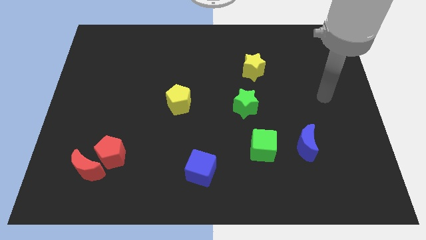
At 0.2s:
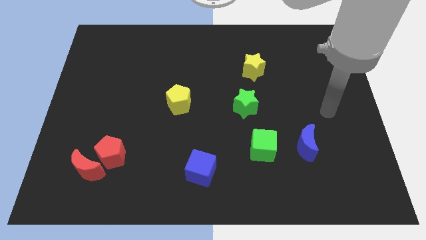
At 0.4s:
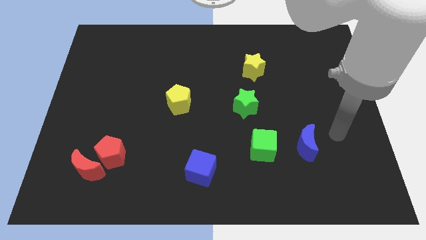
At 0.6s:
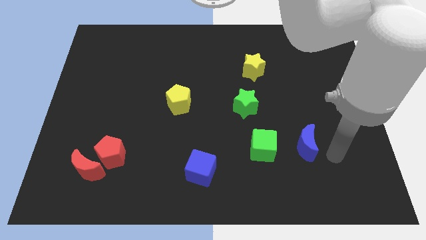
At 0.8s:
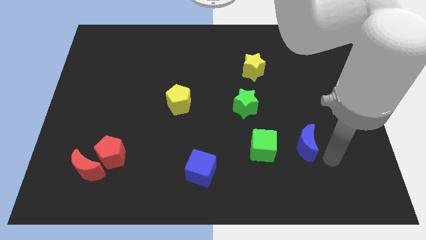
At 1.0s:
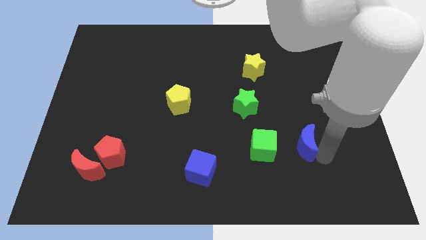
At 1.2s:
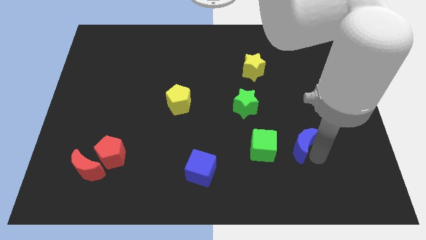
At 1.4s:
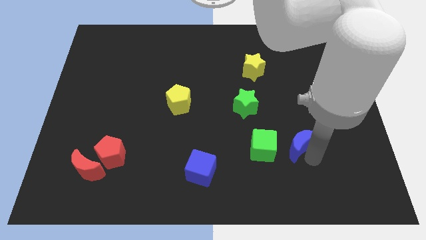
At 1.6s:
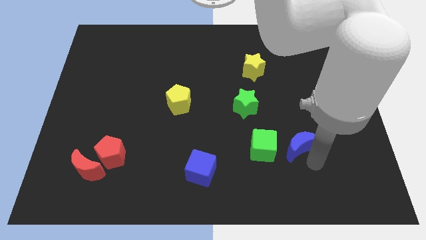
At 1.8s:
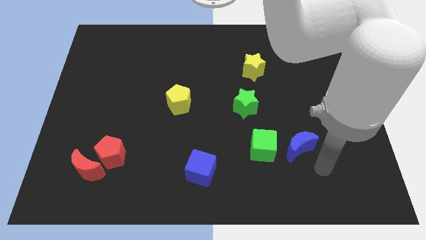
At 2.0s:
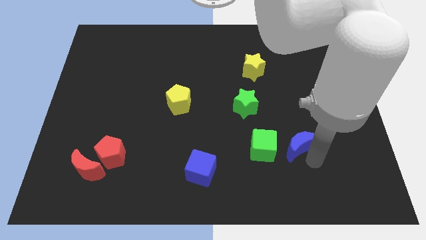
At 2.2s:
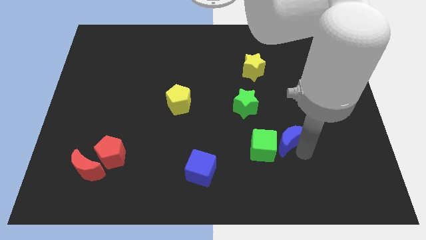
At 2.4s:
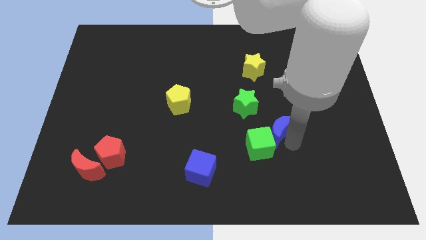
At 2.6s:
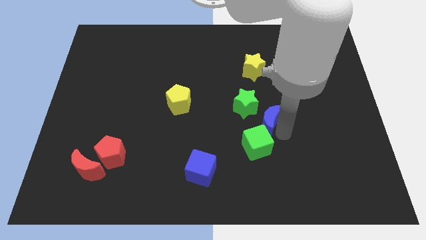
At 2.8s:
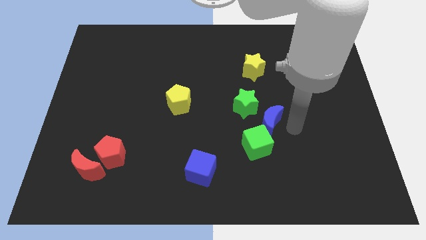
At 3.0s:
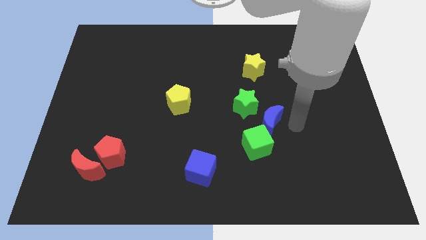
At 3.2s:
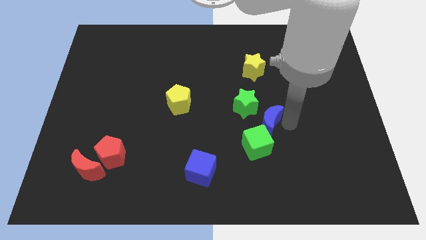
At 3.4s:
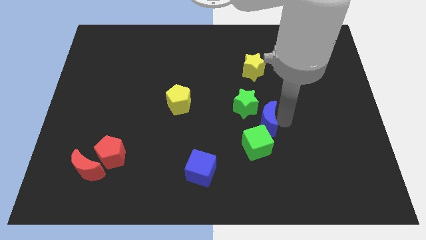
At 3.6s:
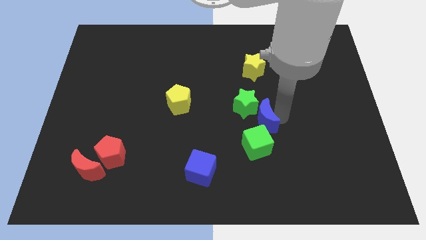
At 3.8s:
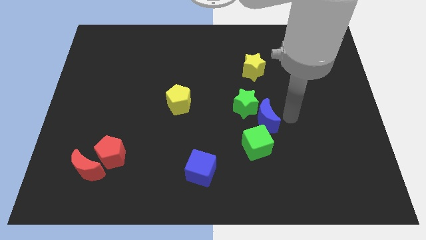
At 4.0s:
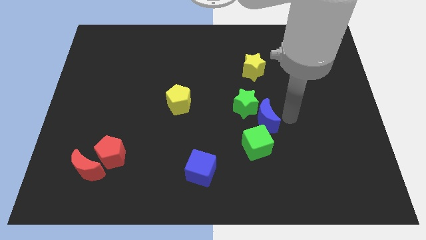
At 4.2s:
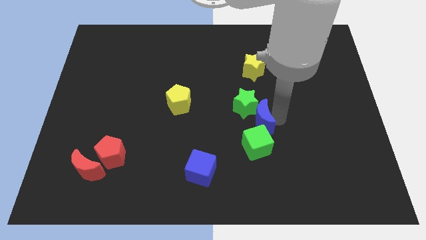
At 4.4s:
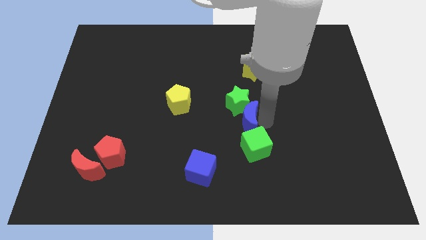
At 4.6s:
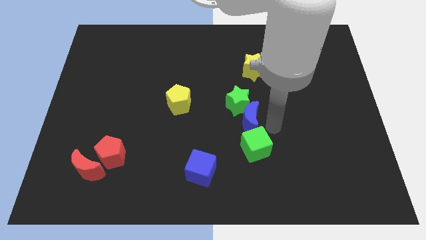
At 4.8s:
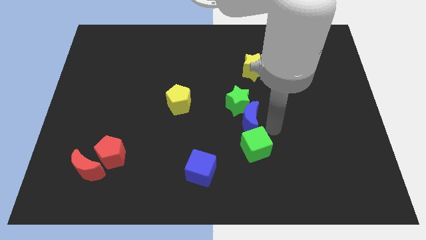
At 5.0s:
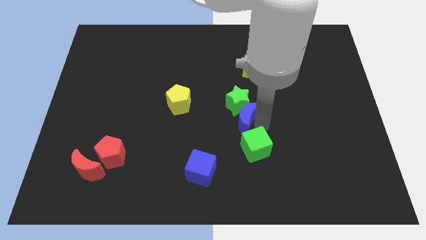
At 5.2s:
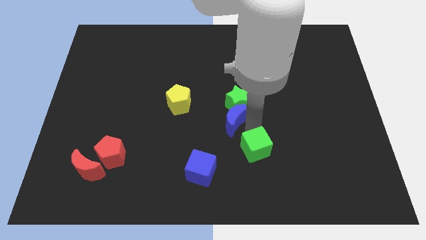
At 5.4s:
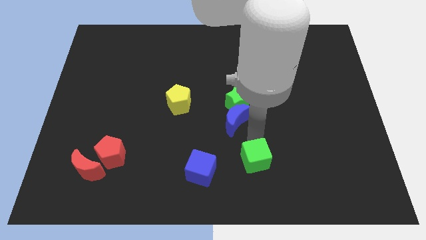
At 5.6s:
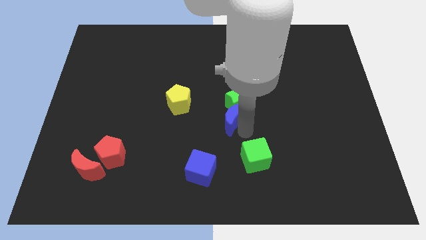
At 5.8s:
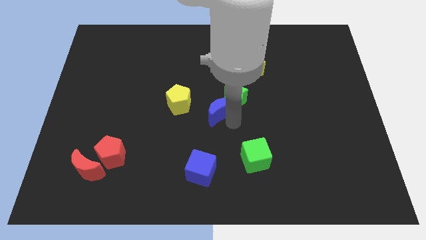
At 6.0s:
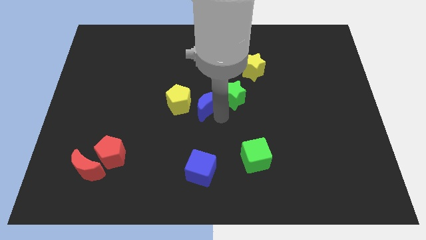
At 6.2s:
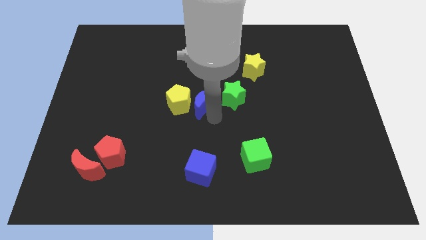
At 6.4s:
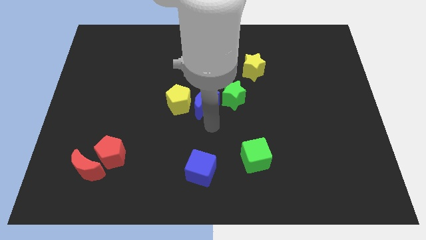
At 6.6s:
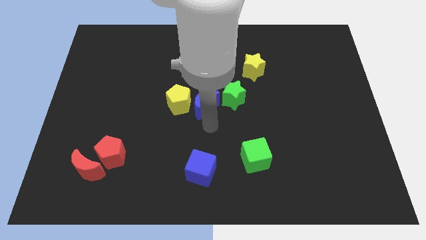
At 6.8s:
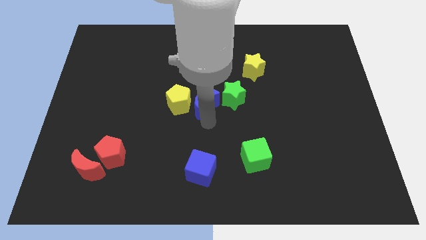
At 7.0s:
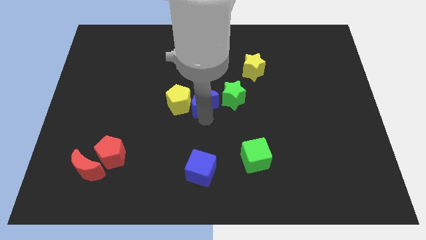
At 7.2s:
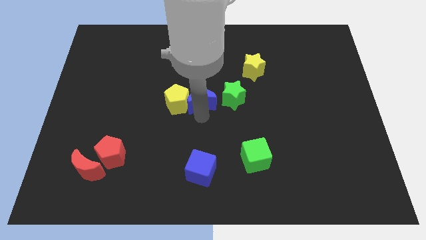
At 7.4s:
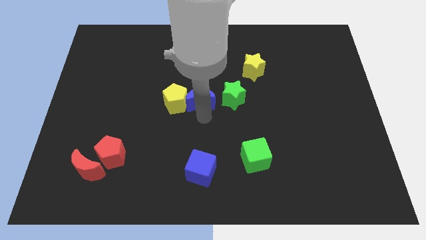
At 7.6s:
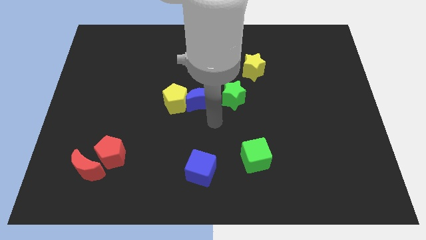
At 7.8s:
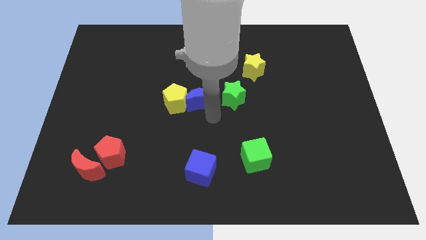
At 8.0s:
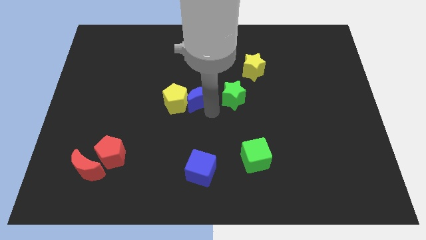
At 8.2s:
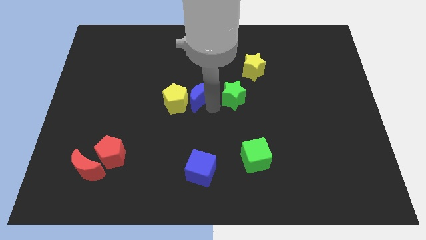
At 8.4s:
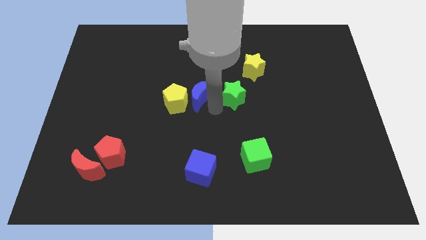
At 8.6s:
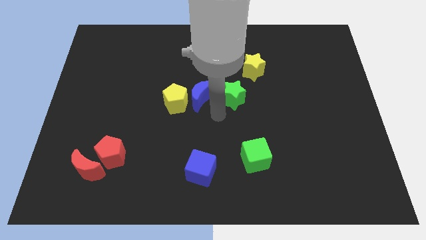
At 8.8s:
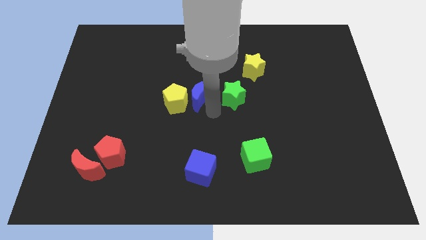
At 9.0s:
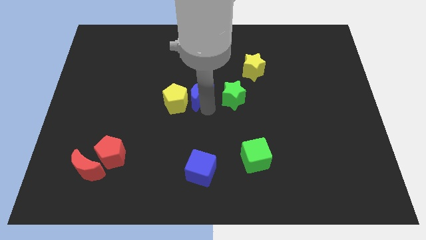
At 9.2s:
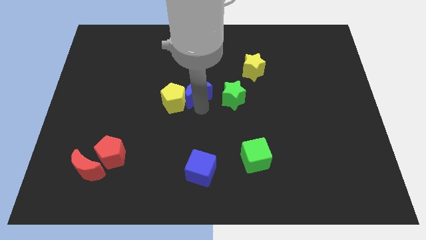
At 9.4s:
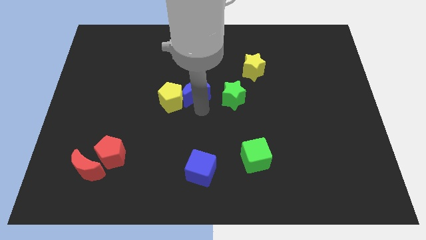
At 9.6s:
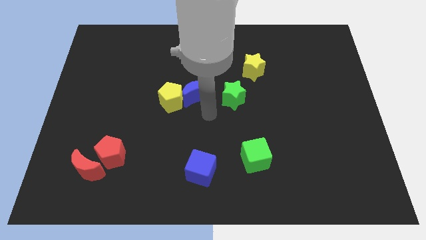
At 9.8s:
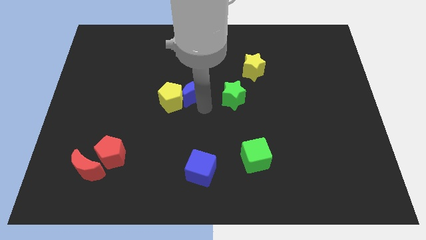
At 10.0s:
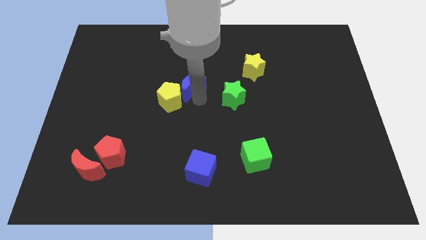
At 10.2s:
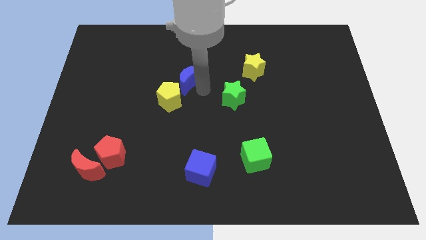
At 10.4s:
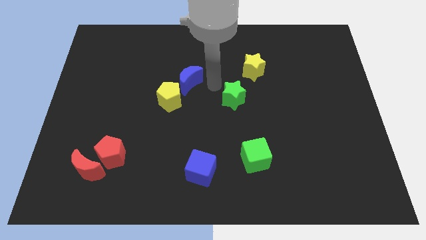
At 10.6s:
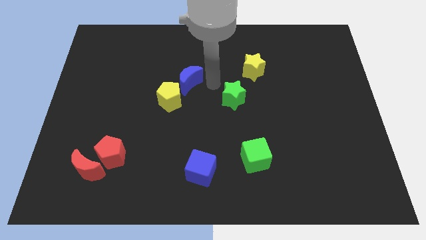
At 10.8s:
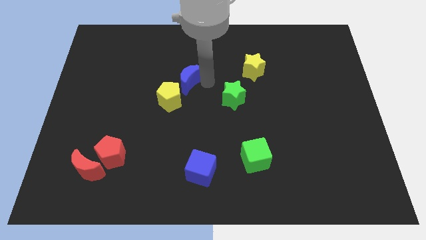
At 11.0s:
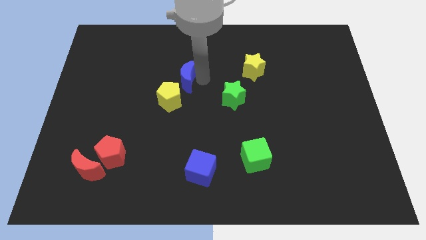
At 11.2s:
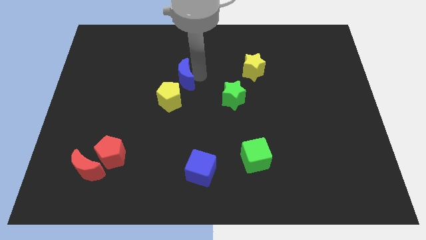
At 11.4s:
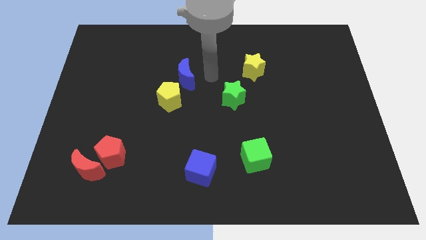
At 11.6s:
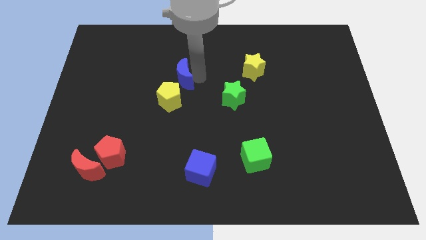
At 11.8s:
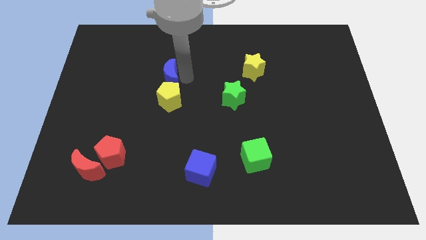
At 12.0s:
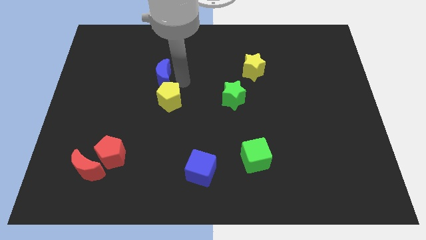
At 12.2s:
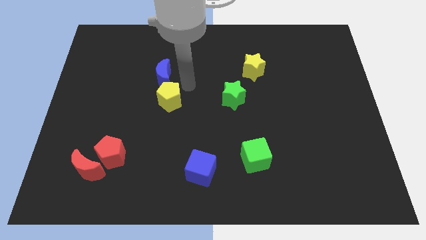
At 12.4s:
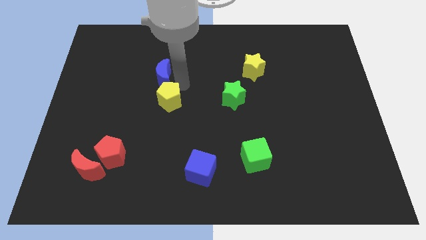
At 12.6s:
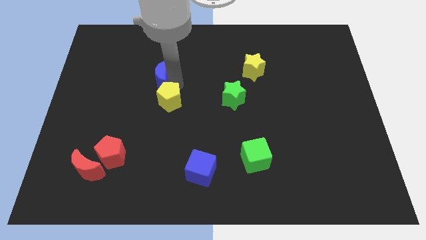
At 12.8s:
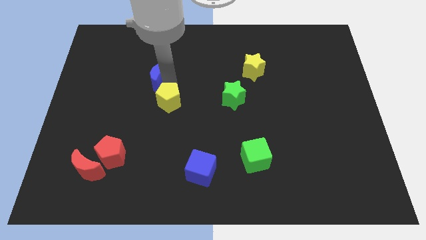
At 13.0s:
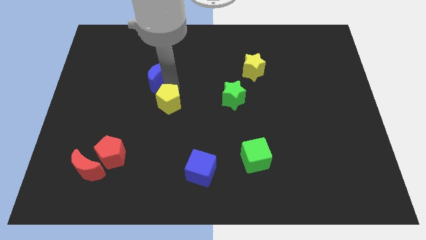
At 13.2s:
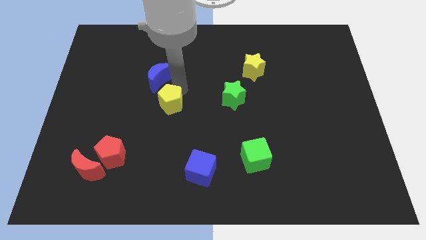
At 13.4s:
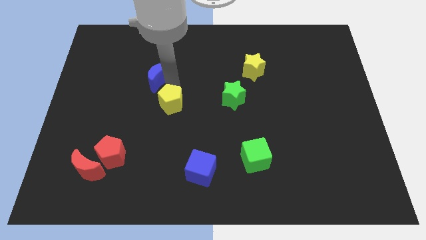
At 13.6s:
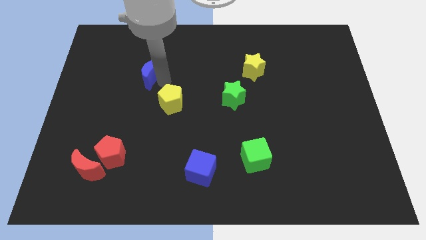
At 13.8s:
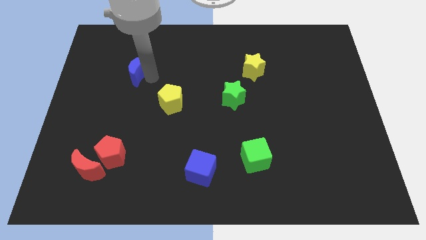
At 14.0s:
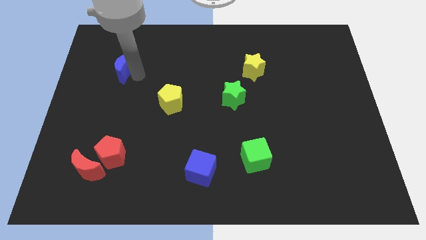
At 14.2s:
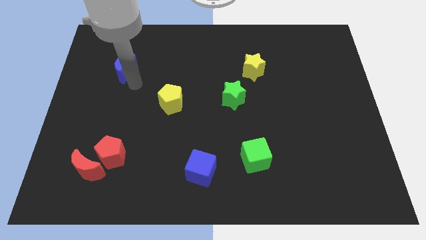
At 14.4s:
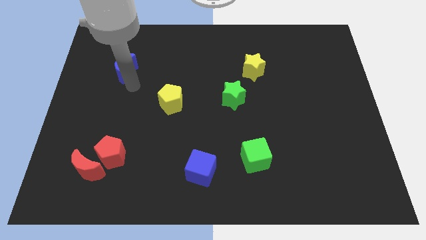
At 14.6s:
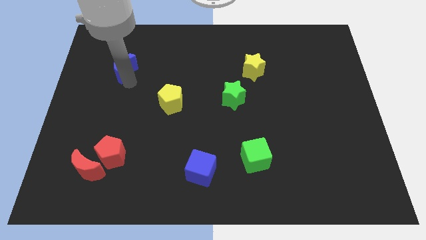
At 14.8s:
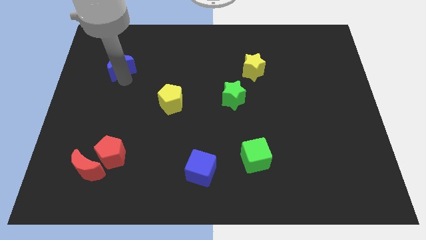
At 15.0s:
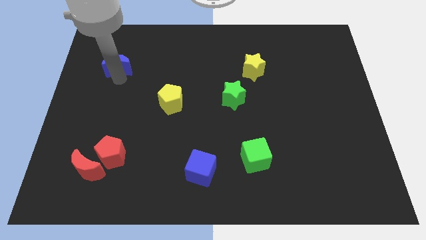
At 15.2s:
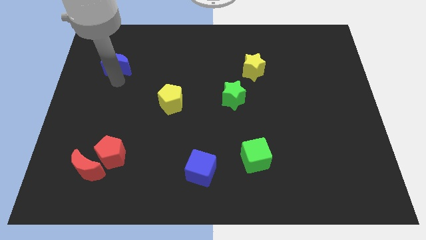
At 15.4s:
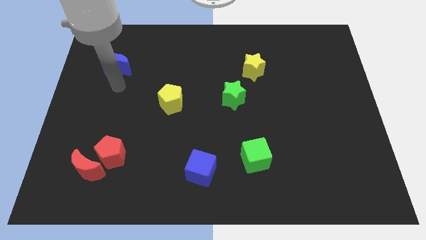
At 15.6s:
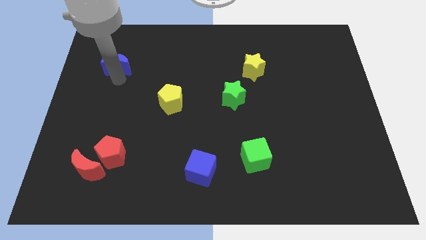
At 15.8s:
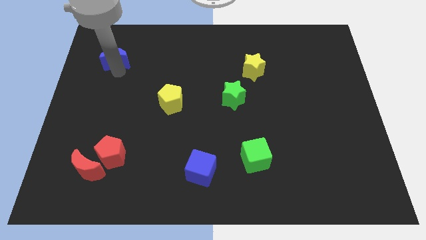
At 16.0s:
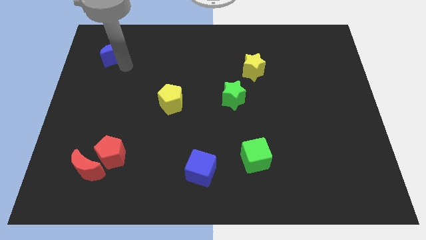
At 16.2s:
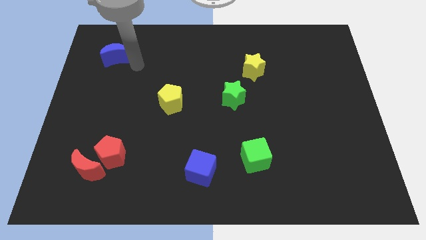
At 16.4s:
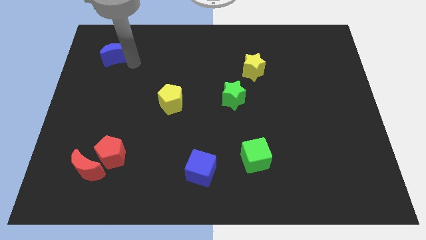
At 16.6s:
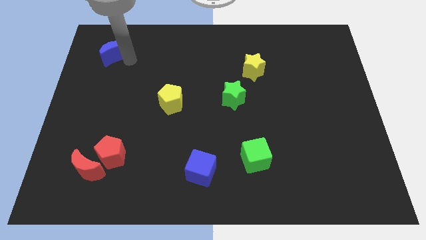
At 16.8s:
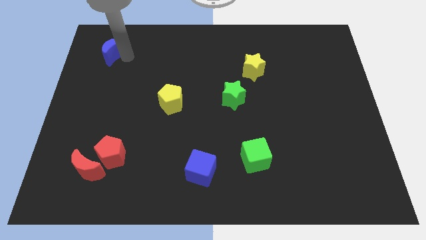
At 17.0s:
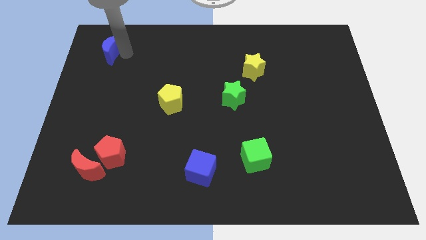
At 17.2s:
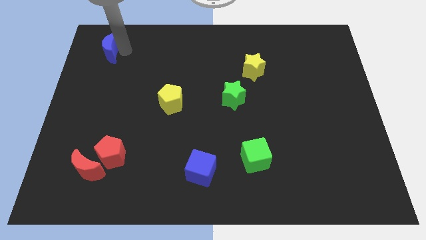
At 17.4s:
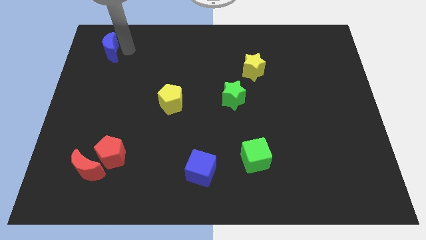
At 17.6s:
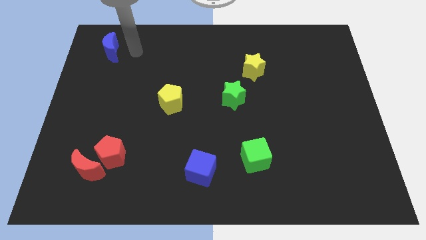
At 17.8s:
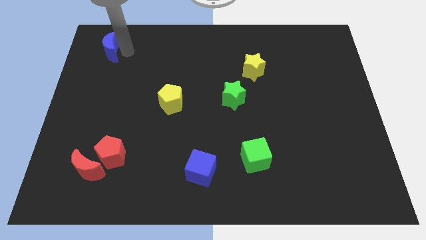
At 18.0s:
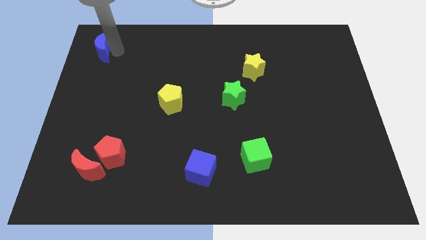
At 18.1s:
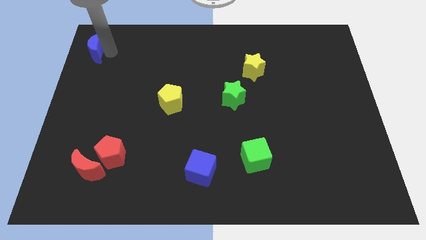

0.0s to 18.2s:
move the blue moon to the top left
